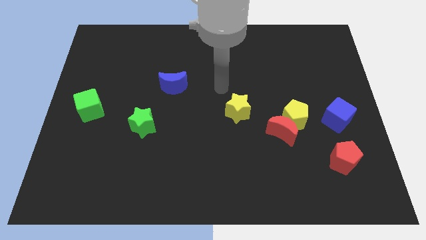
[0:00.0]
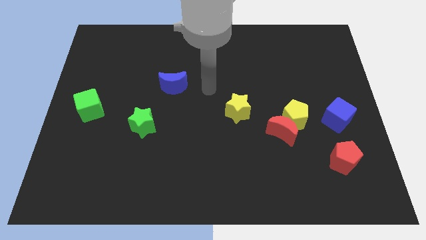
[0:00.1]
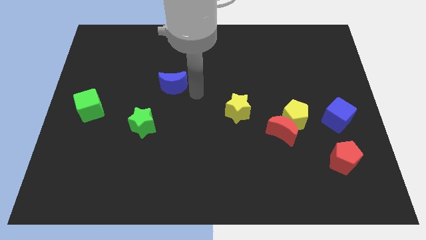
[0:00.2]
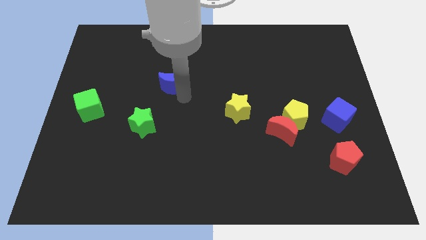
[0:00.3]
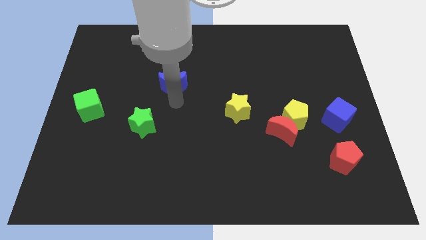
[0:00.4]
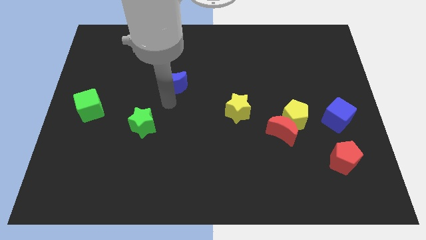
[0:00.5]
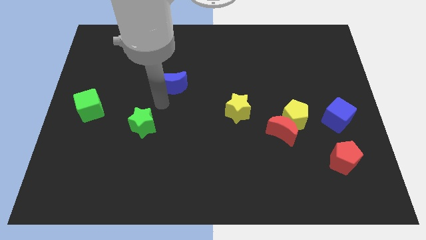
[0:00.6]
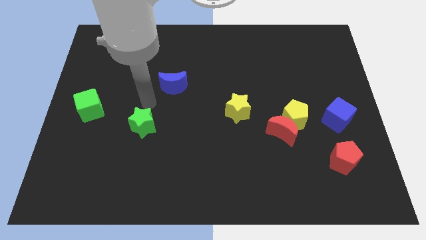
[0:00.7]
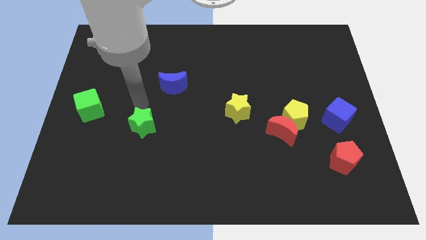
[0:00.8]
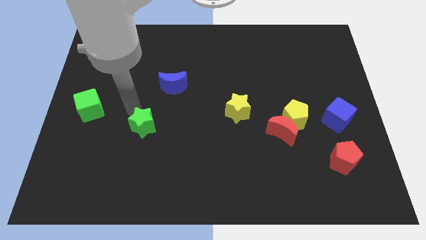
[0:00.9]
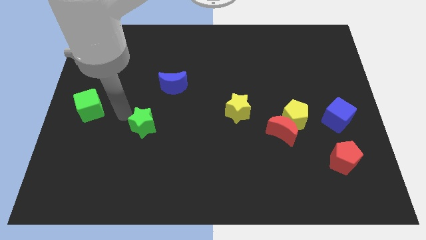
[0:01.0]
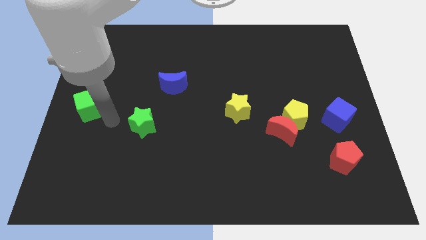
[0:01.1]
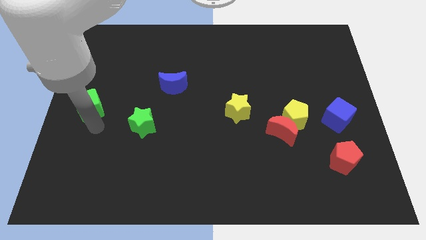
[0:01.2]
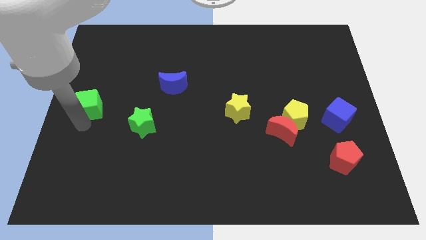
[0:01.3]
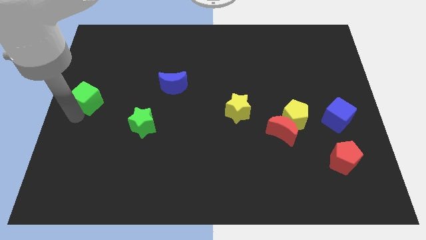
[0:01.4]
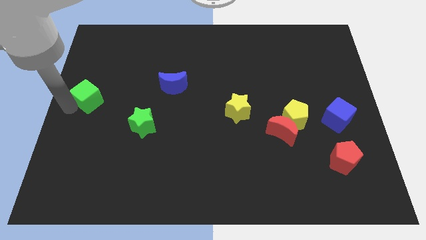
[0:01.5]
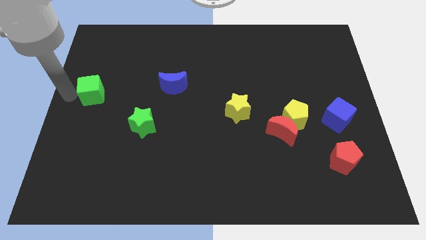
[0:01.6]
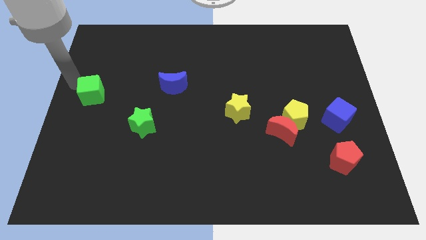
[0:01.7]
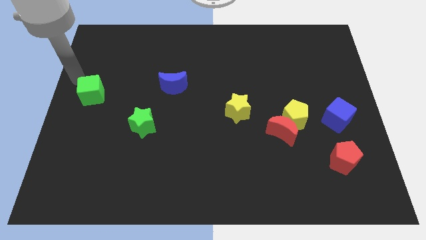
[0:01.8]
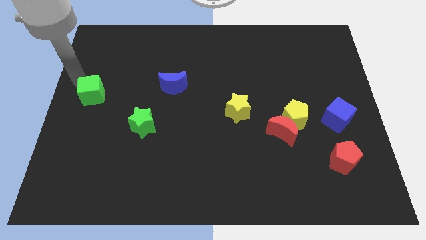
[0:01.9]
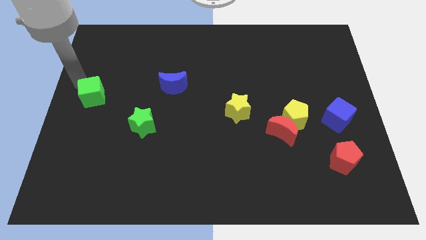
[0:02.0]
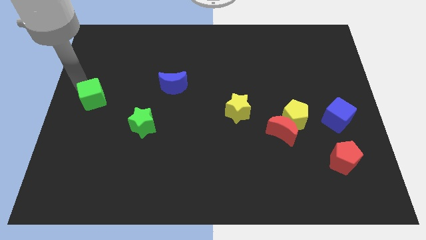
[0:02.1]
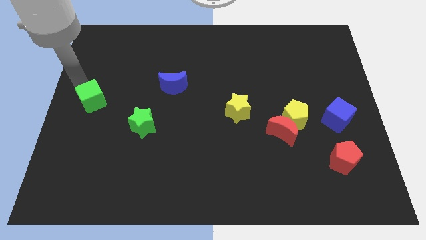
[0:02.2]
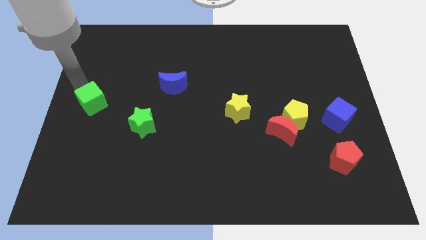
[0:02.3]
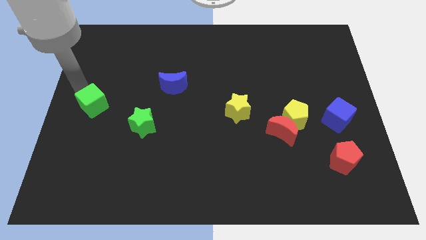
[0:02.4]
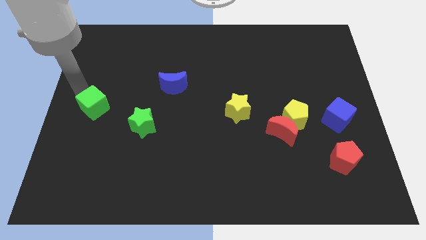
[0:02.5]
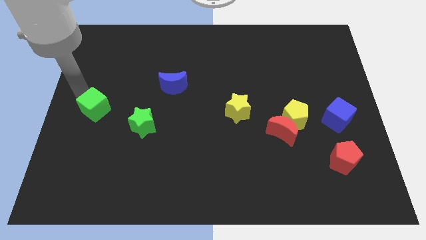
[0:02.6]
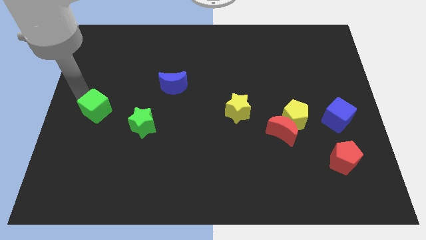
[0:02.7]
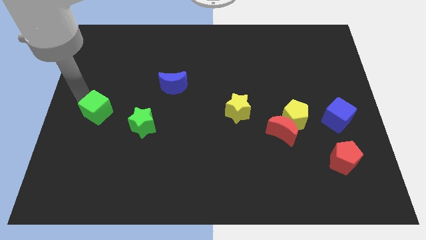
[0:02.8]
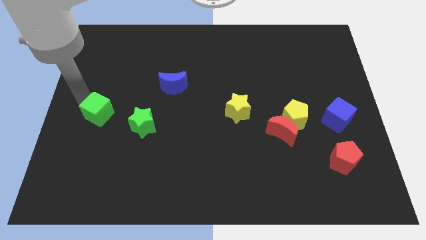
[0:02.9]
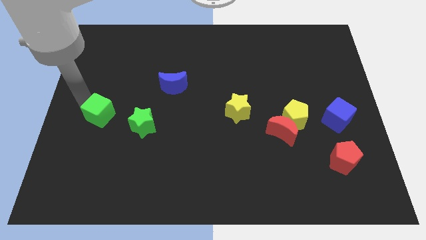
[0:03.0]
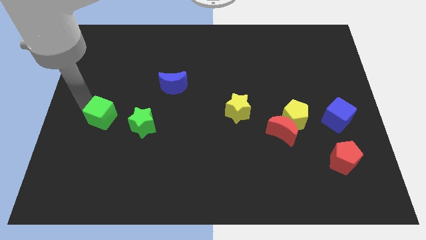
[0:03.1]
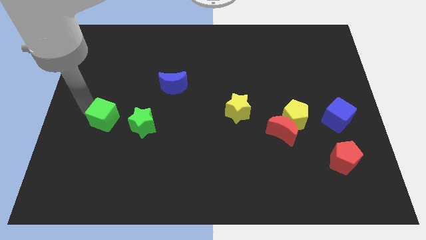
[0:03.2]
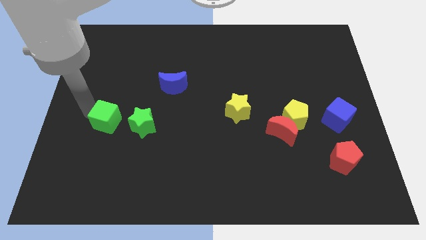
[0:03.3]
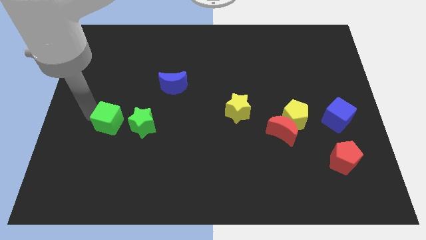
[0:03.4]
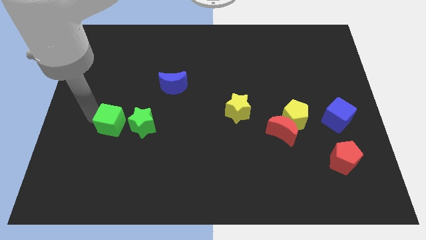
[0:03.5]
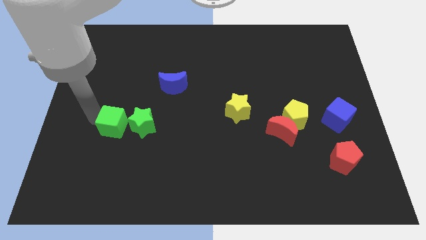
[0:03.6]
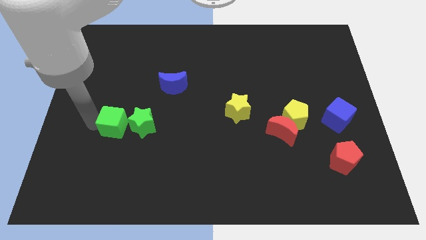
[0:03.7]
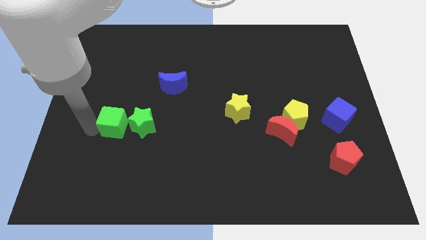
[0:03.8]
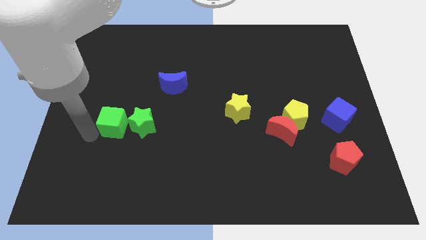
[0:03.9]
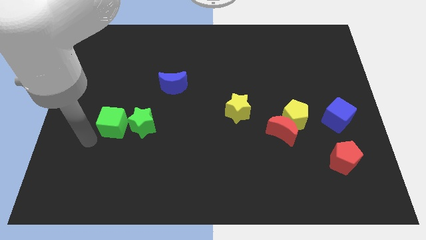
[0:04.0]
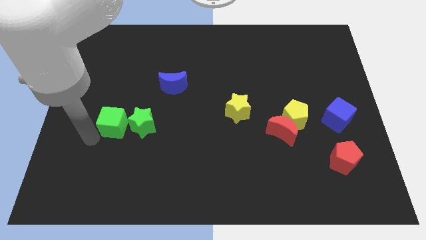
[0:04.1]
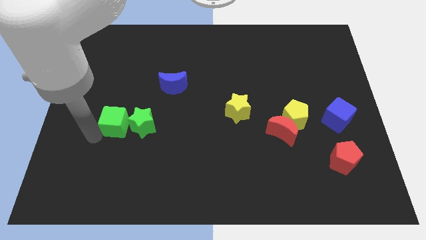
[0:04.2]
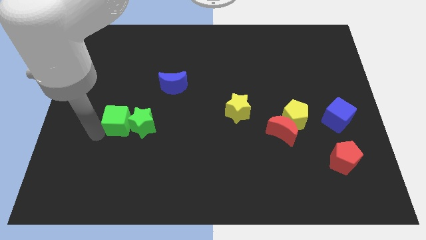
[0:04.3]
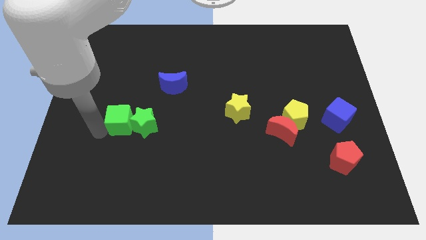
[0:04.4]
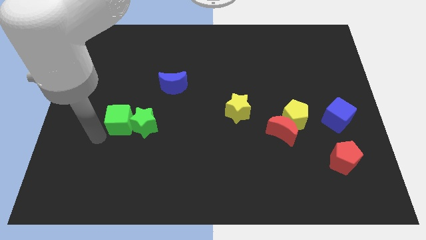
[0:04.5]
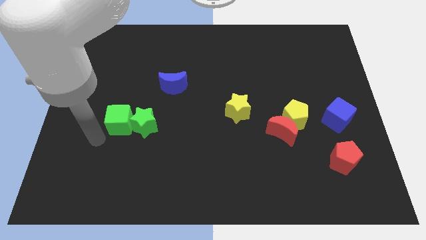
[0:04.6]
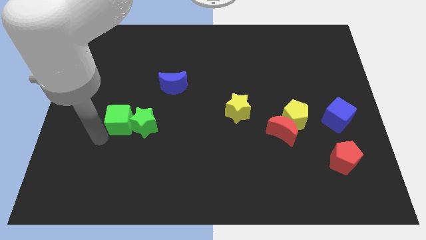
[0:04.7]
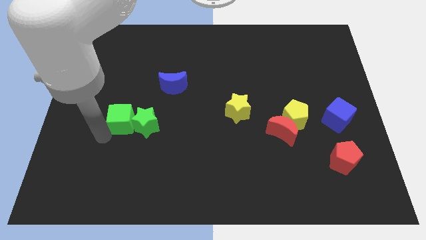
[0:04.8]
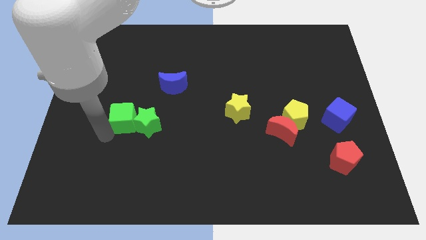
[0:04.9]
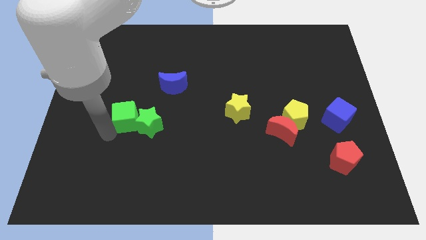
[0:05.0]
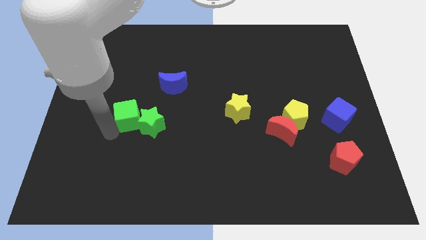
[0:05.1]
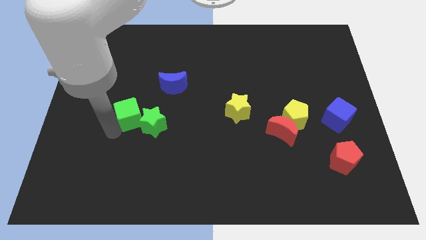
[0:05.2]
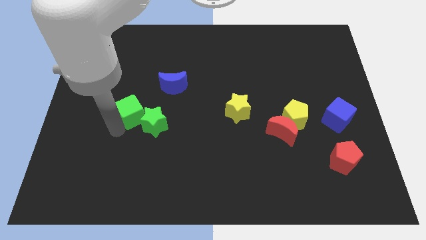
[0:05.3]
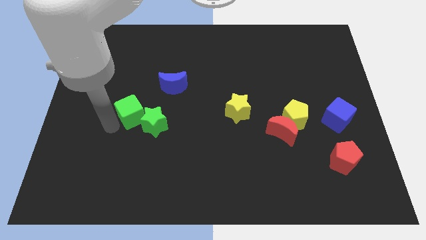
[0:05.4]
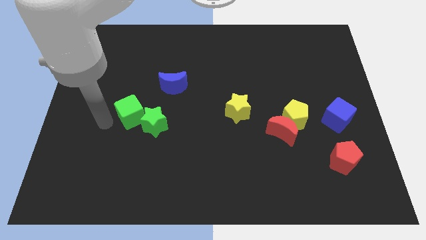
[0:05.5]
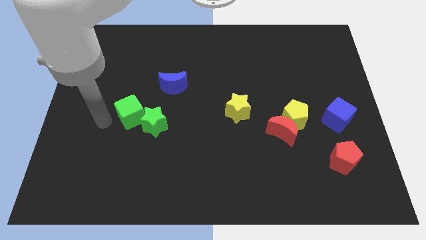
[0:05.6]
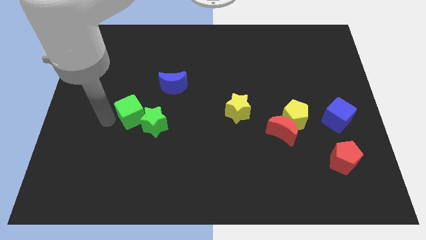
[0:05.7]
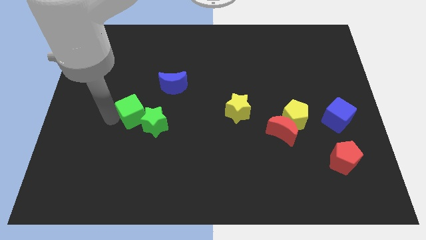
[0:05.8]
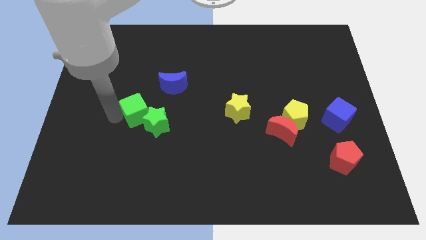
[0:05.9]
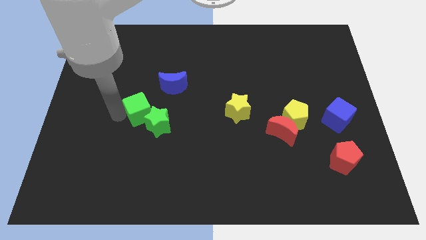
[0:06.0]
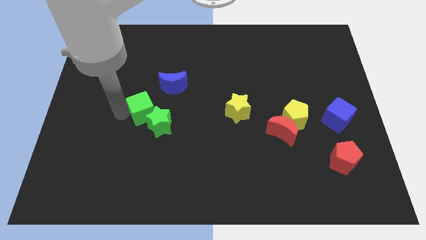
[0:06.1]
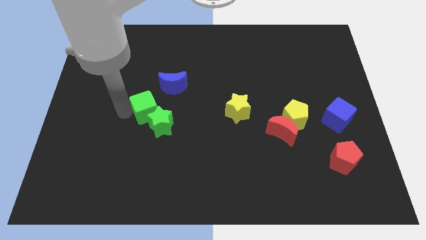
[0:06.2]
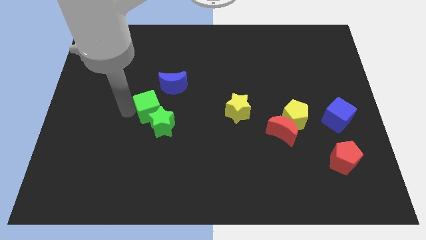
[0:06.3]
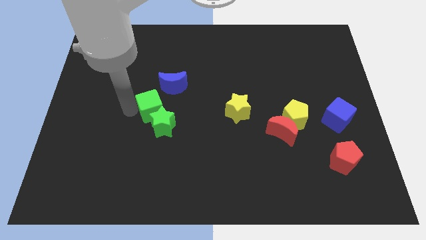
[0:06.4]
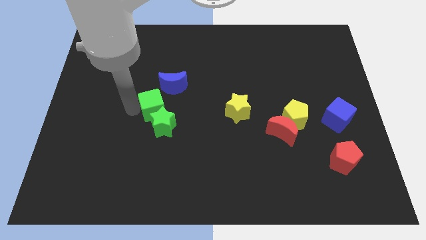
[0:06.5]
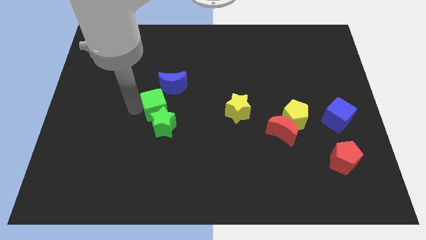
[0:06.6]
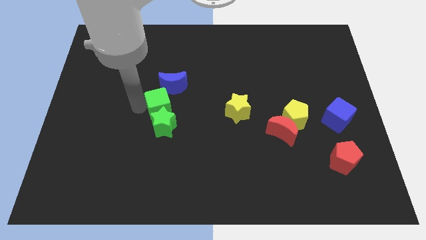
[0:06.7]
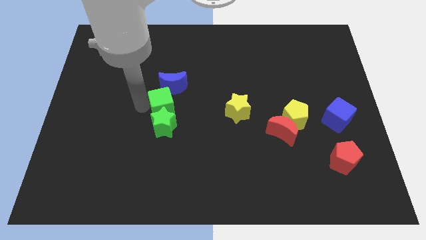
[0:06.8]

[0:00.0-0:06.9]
push the green cube to the center
